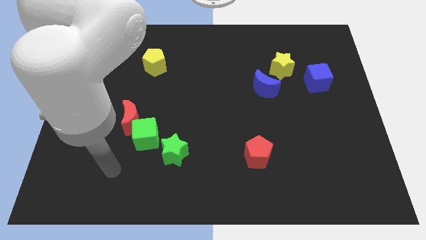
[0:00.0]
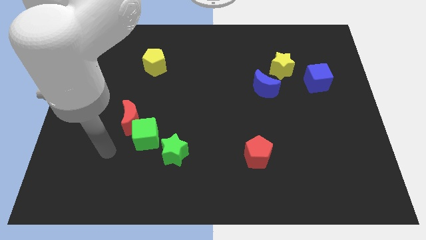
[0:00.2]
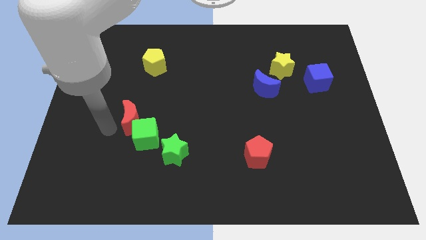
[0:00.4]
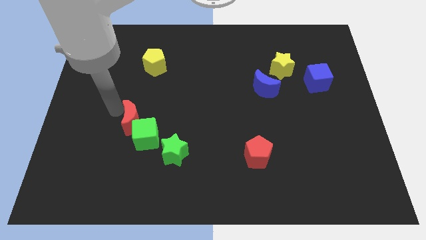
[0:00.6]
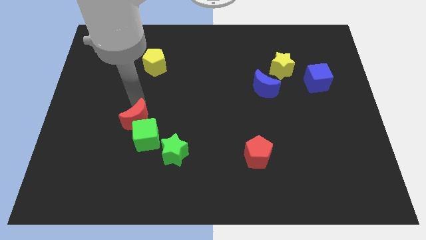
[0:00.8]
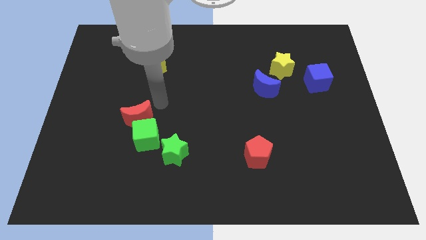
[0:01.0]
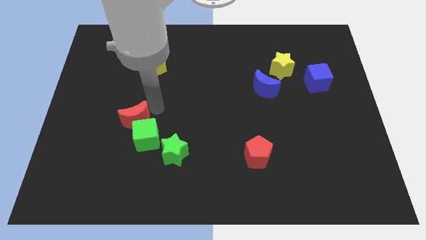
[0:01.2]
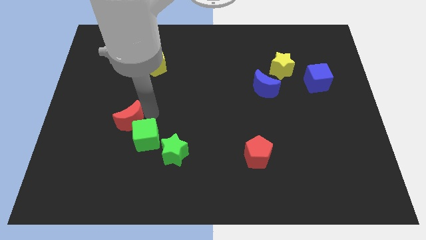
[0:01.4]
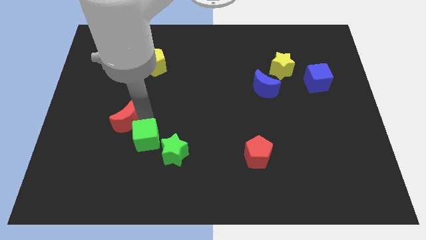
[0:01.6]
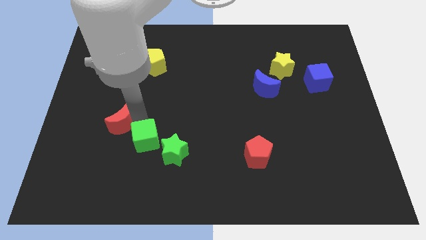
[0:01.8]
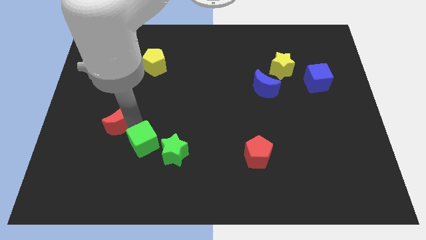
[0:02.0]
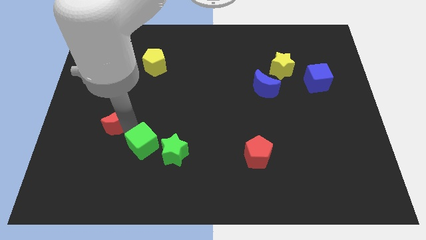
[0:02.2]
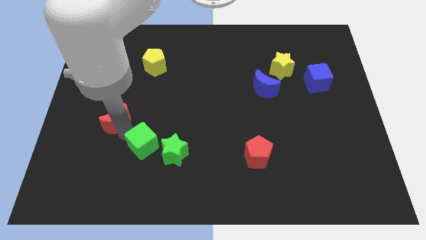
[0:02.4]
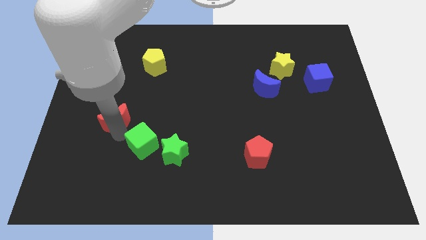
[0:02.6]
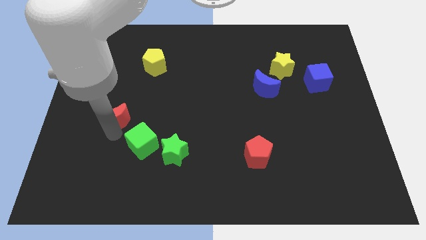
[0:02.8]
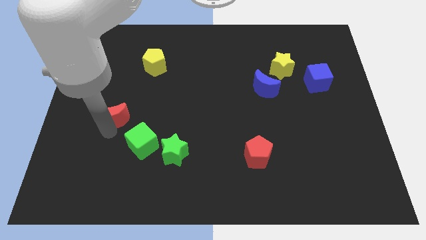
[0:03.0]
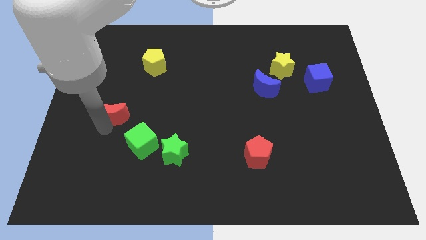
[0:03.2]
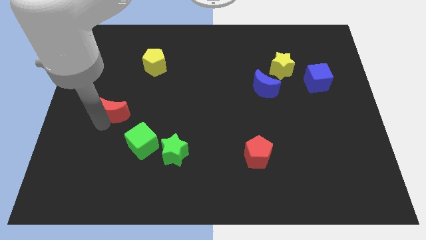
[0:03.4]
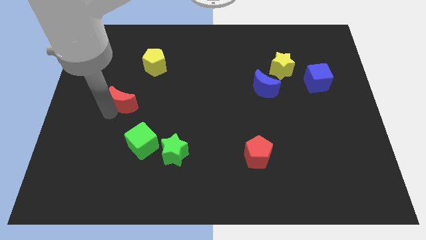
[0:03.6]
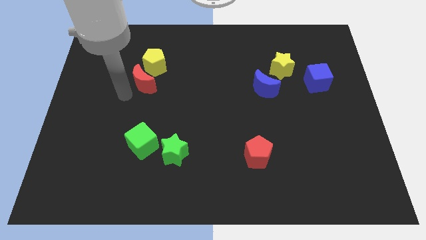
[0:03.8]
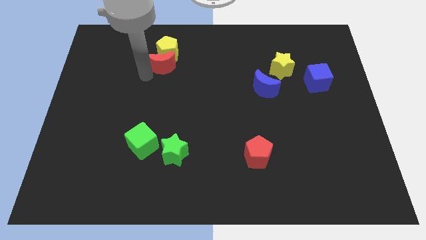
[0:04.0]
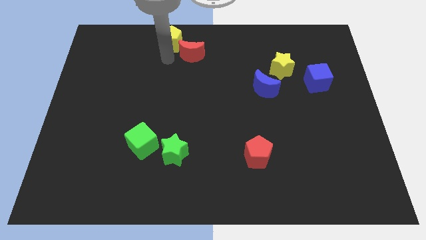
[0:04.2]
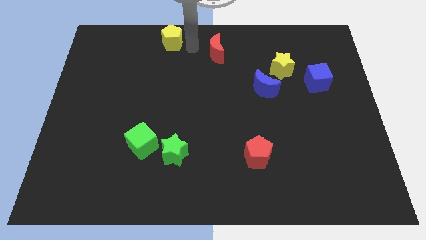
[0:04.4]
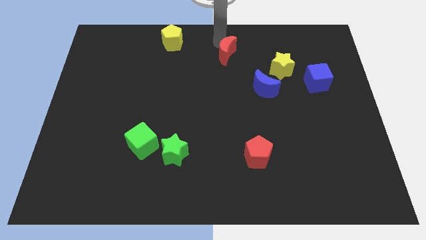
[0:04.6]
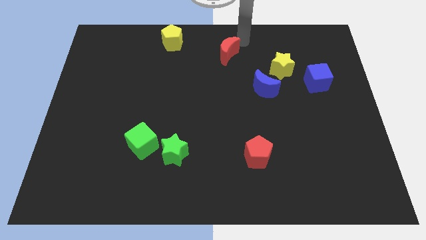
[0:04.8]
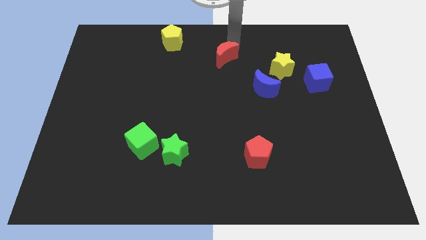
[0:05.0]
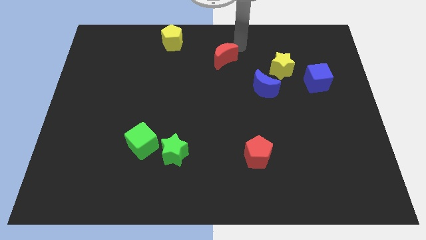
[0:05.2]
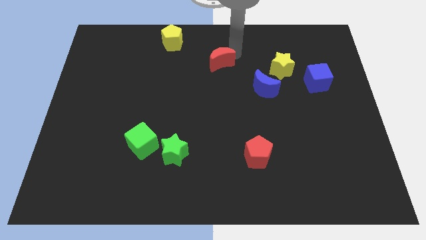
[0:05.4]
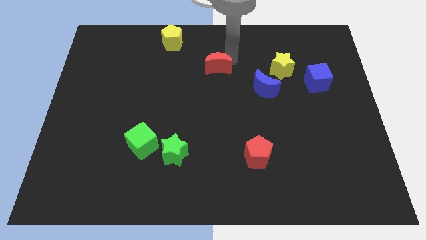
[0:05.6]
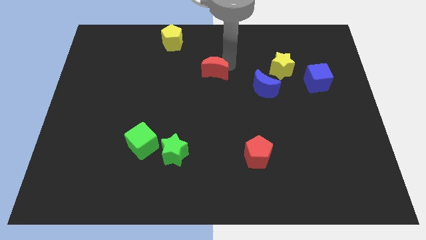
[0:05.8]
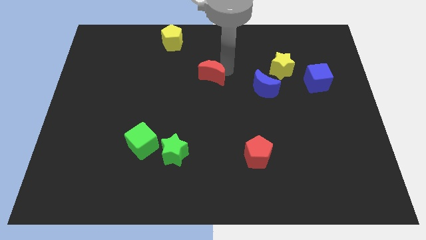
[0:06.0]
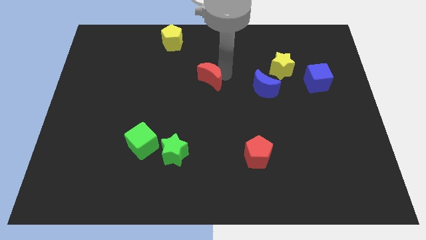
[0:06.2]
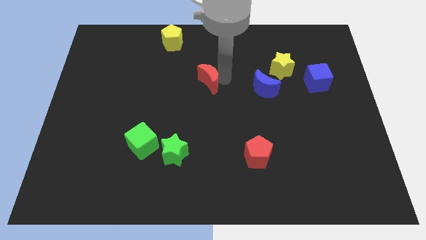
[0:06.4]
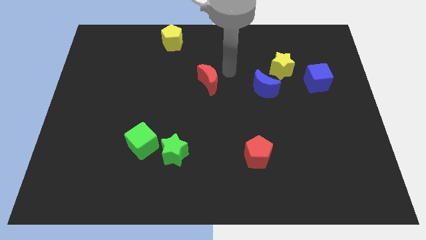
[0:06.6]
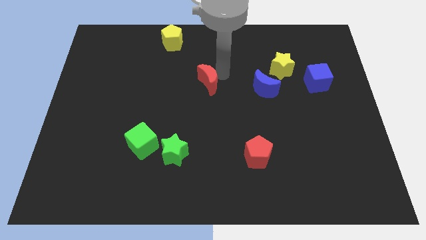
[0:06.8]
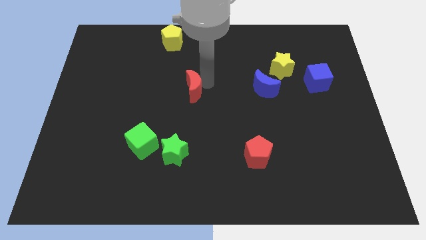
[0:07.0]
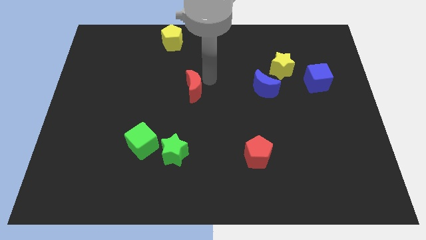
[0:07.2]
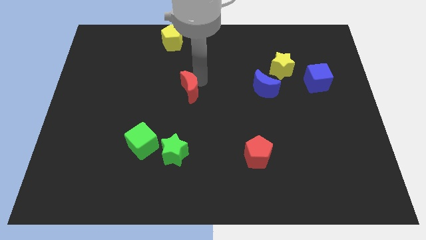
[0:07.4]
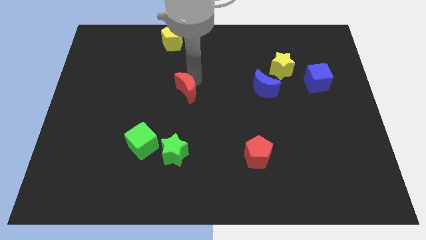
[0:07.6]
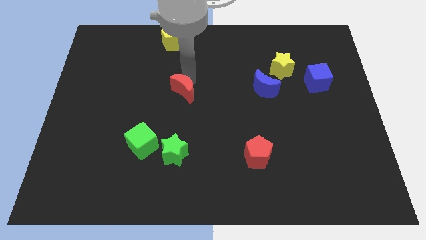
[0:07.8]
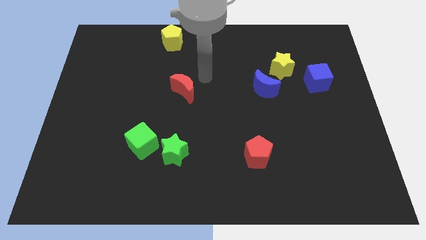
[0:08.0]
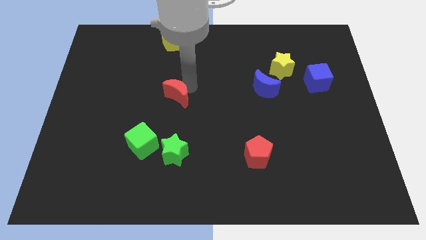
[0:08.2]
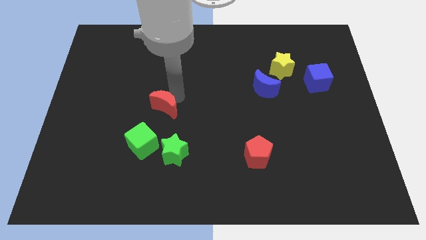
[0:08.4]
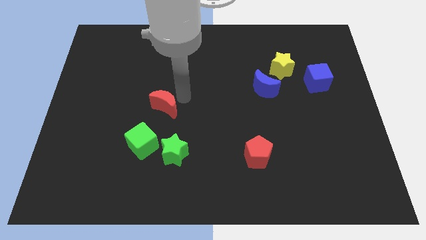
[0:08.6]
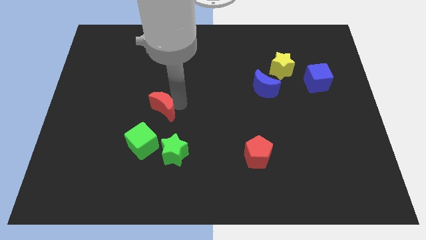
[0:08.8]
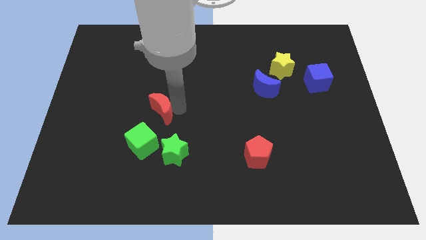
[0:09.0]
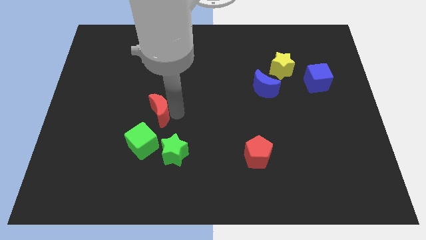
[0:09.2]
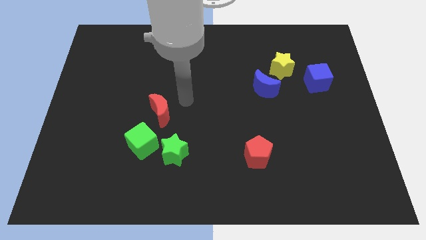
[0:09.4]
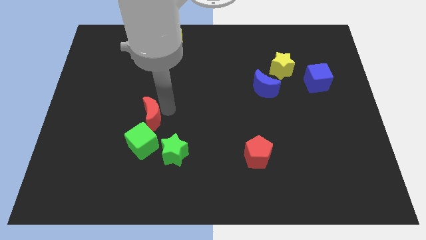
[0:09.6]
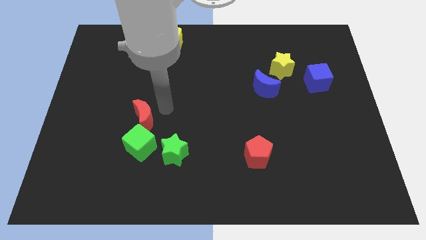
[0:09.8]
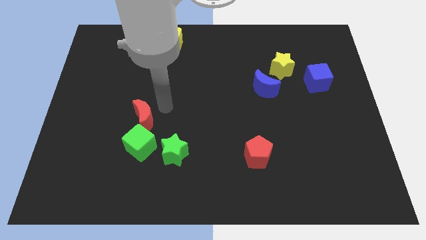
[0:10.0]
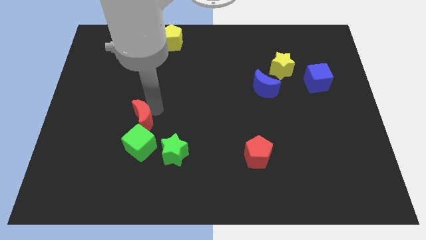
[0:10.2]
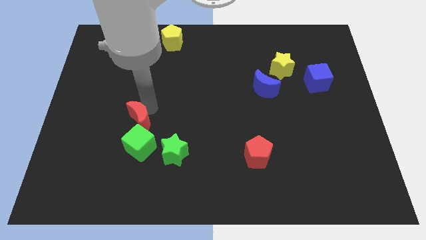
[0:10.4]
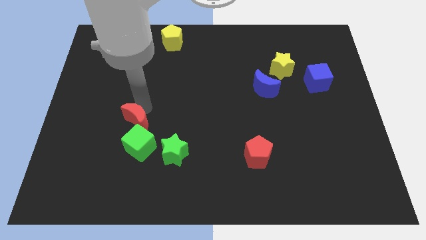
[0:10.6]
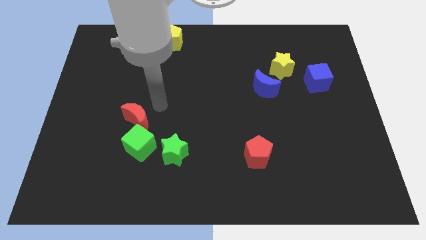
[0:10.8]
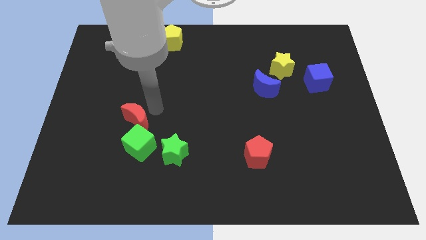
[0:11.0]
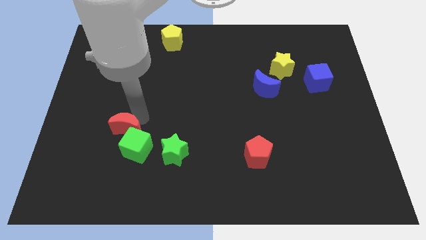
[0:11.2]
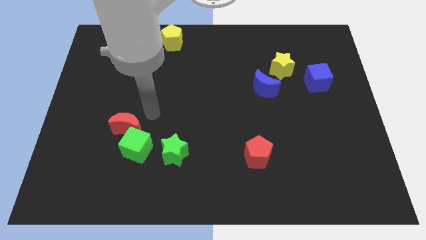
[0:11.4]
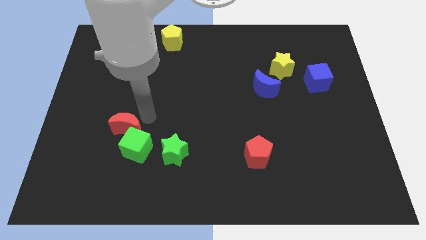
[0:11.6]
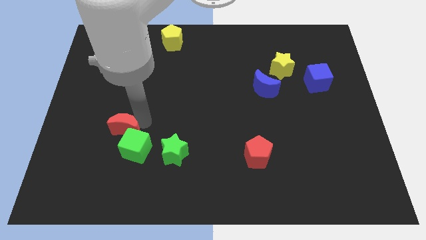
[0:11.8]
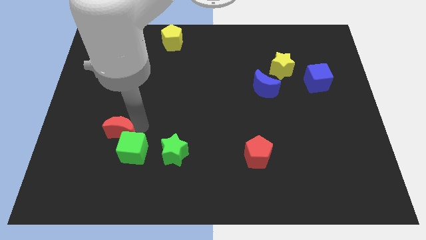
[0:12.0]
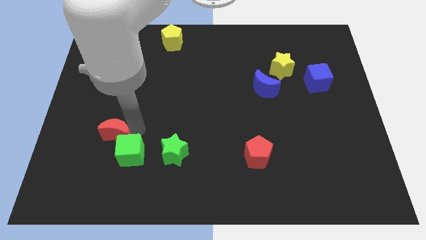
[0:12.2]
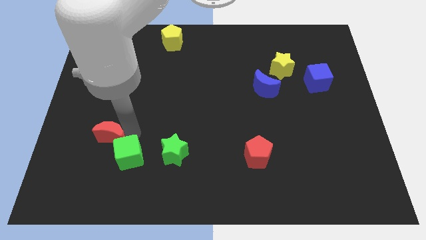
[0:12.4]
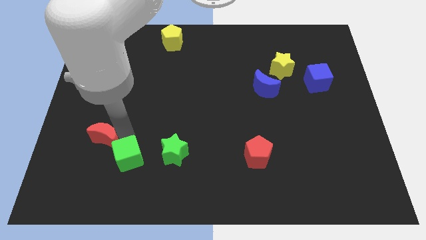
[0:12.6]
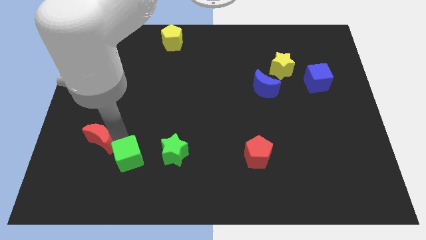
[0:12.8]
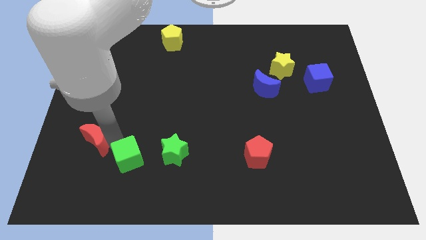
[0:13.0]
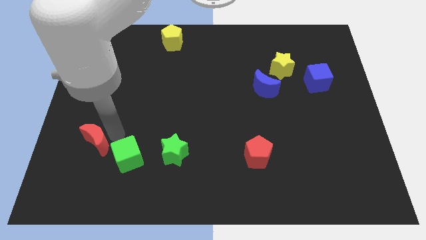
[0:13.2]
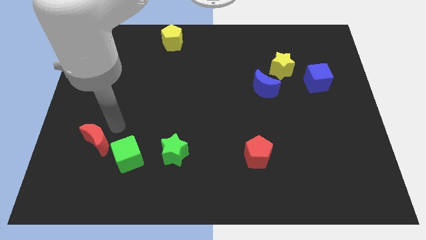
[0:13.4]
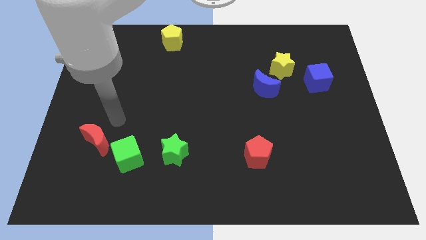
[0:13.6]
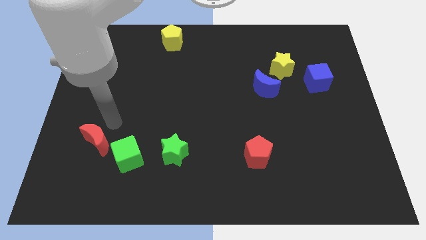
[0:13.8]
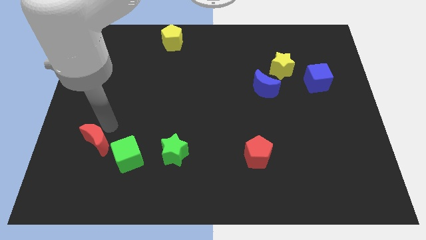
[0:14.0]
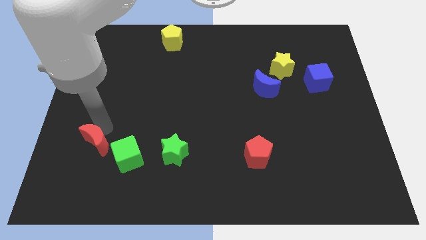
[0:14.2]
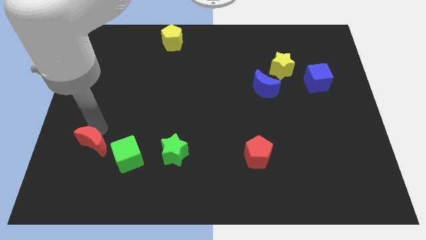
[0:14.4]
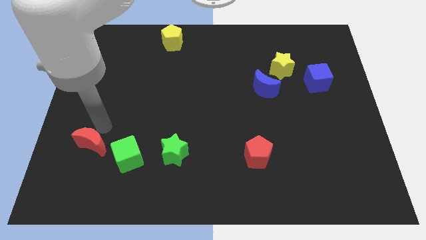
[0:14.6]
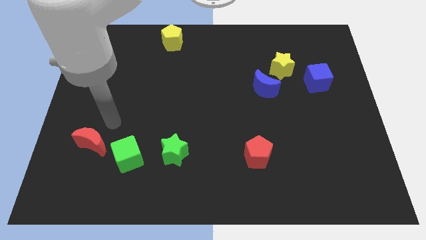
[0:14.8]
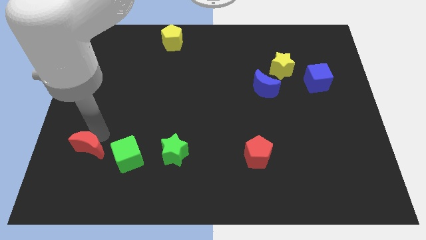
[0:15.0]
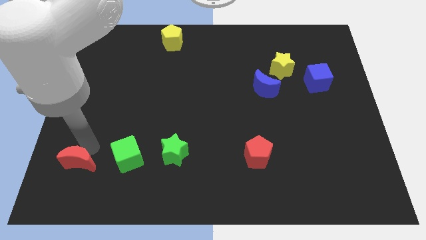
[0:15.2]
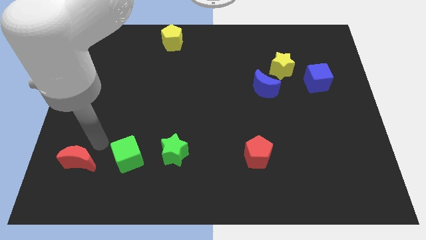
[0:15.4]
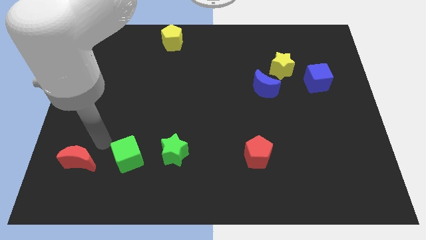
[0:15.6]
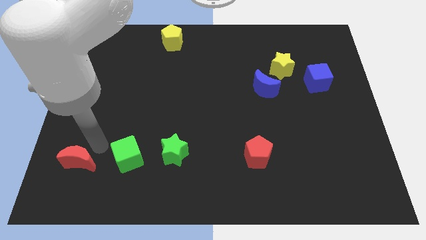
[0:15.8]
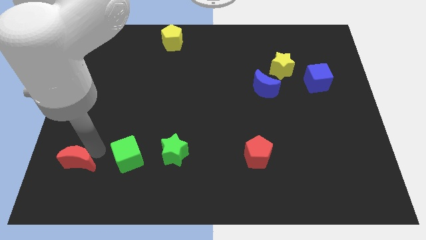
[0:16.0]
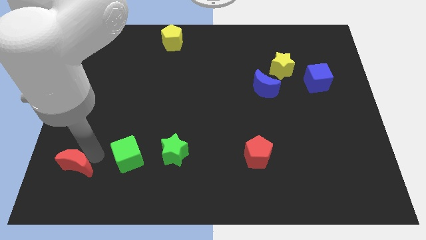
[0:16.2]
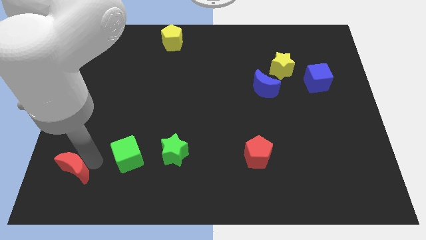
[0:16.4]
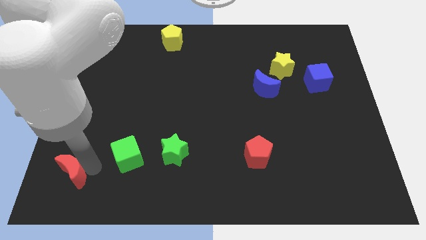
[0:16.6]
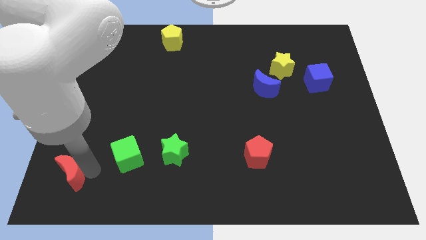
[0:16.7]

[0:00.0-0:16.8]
slide the red moon to the bottom left
